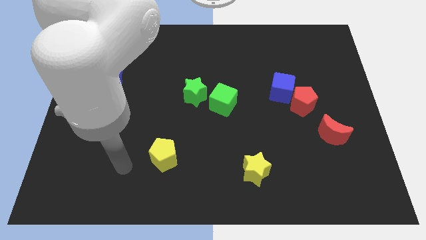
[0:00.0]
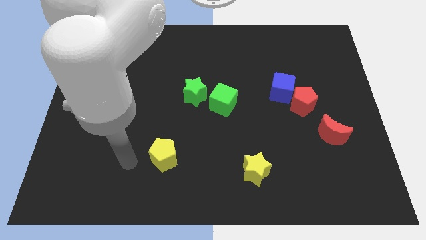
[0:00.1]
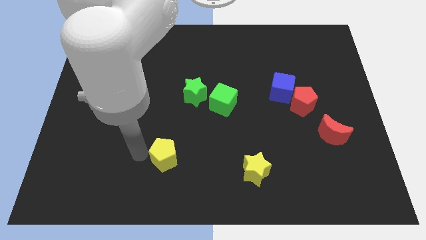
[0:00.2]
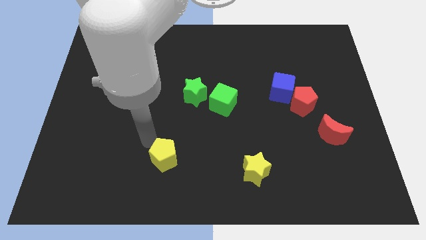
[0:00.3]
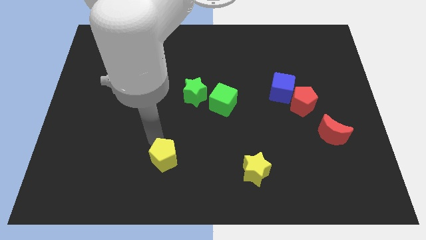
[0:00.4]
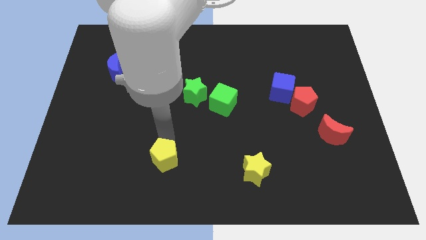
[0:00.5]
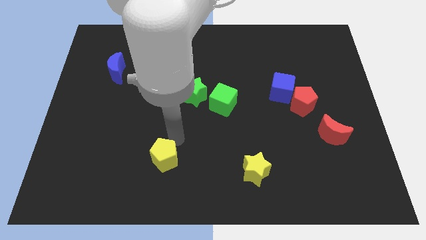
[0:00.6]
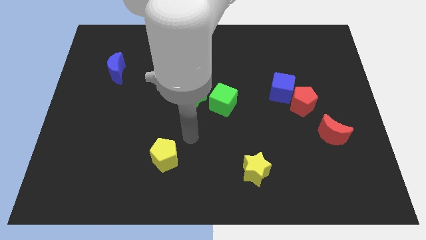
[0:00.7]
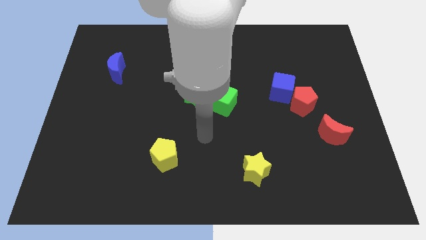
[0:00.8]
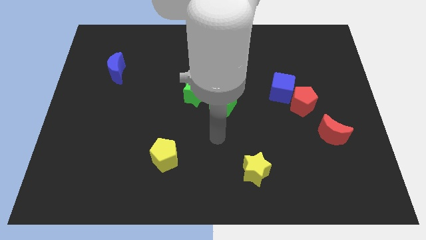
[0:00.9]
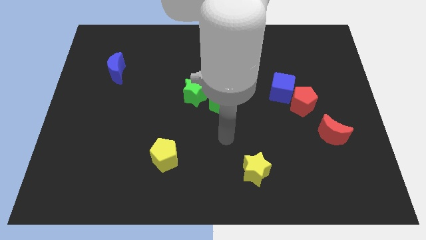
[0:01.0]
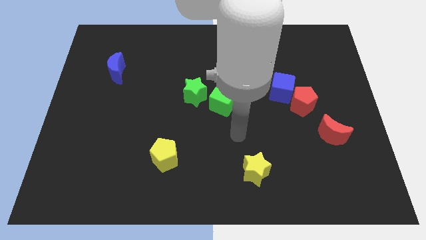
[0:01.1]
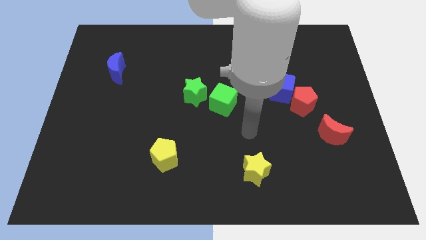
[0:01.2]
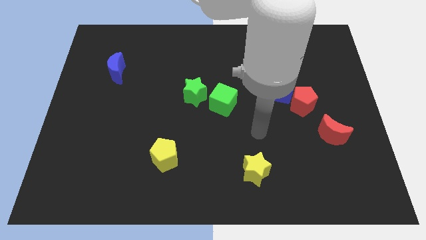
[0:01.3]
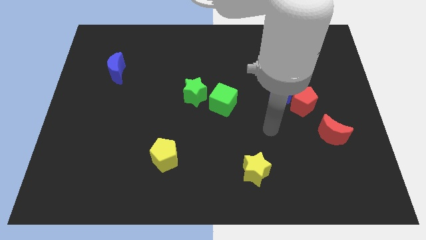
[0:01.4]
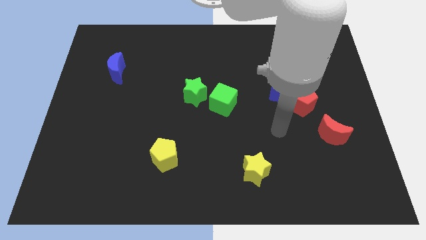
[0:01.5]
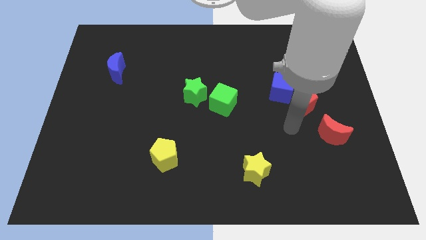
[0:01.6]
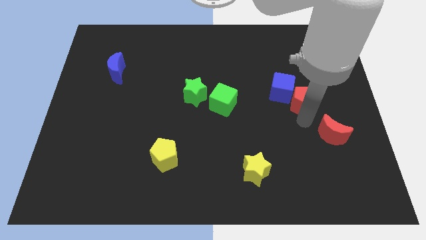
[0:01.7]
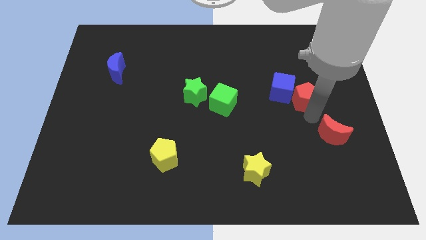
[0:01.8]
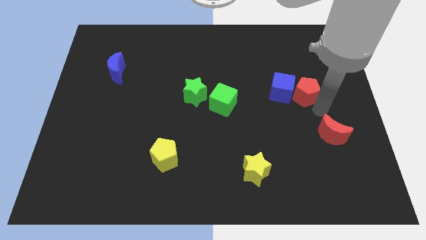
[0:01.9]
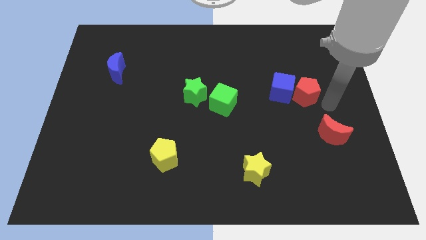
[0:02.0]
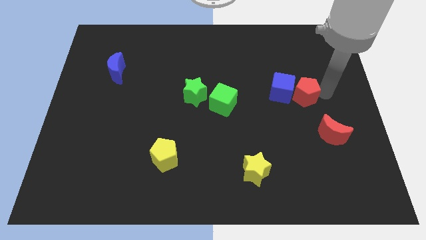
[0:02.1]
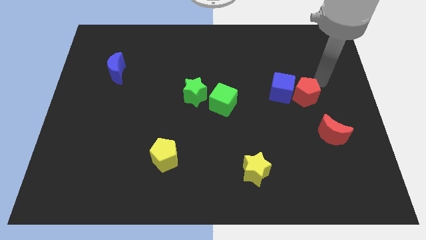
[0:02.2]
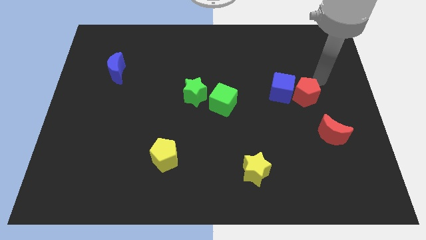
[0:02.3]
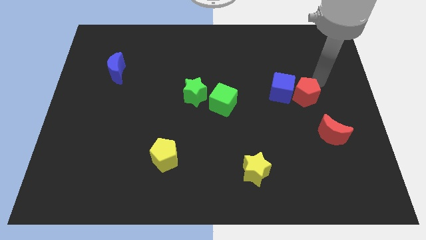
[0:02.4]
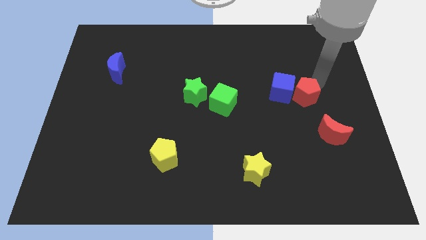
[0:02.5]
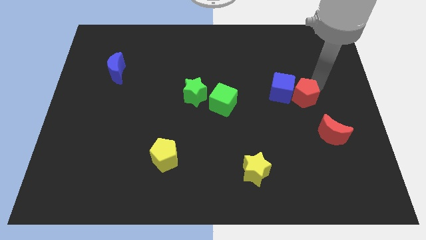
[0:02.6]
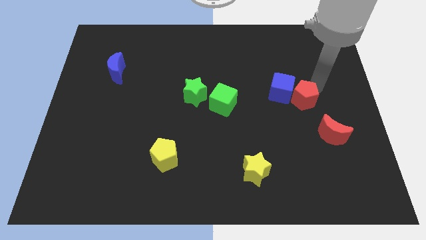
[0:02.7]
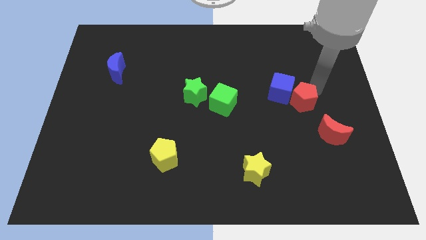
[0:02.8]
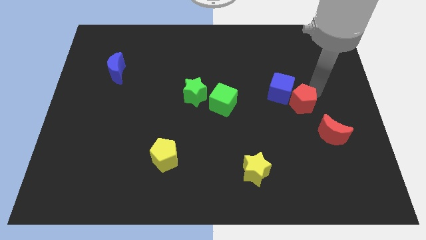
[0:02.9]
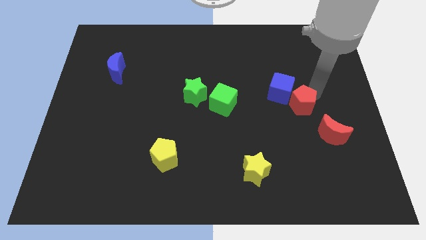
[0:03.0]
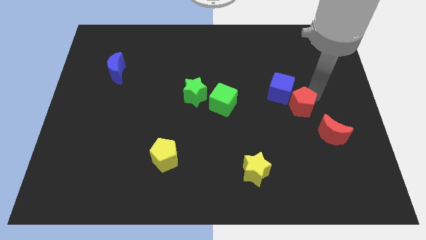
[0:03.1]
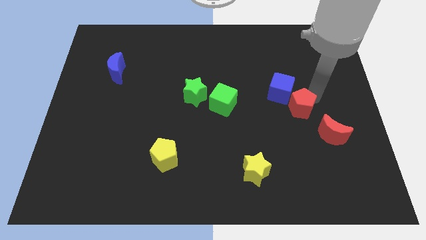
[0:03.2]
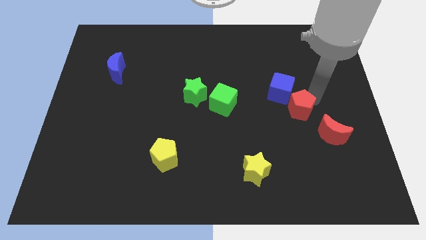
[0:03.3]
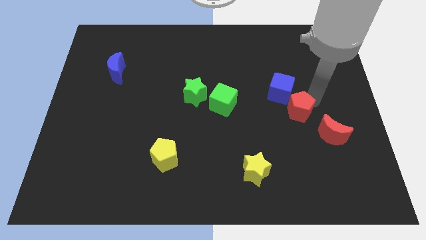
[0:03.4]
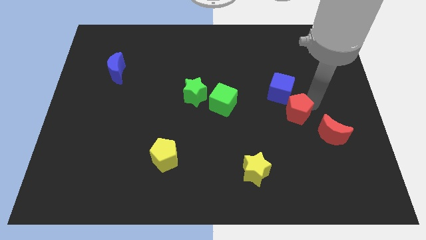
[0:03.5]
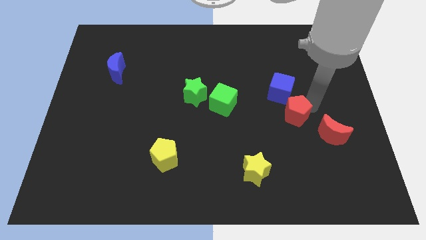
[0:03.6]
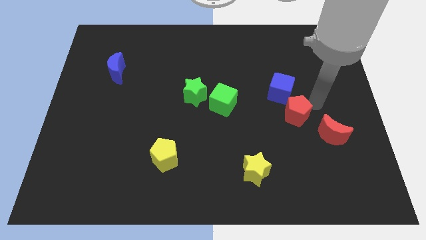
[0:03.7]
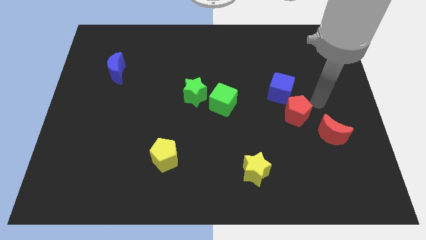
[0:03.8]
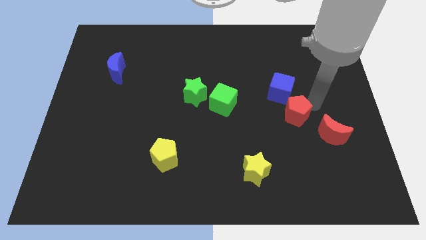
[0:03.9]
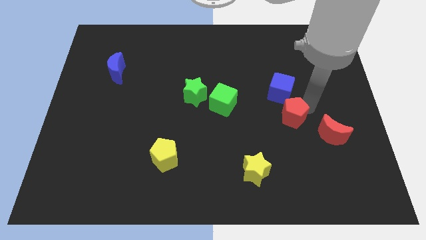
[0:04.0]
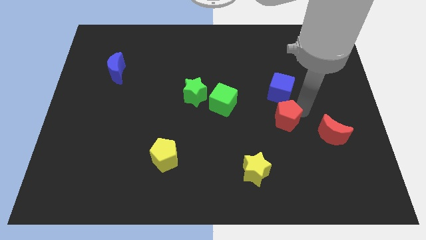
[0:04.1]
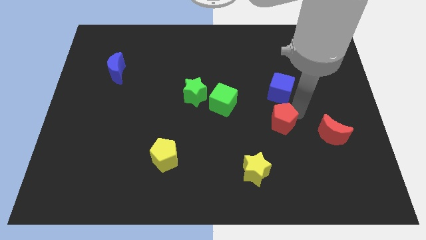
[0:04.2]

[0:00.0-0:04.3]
move the red pentagon diagonally downwards and to the left a bit

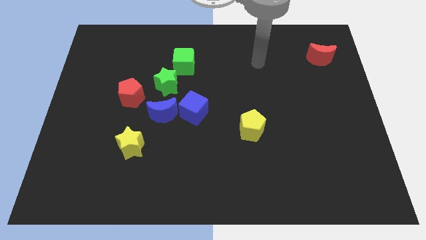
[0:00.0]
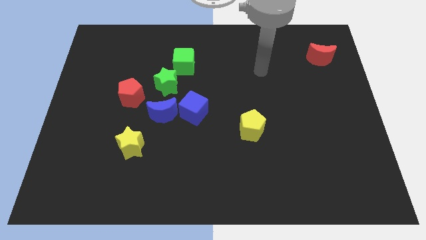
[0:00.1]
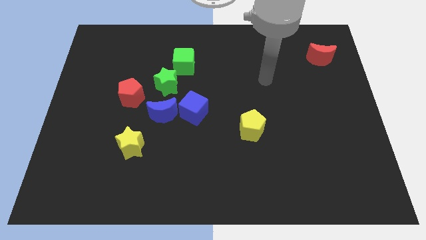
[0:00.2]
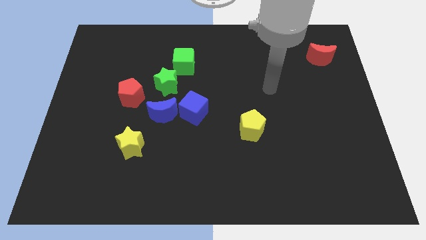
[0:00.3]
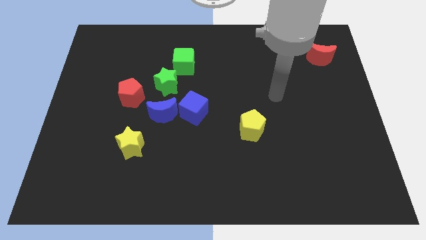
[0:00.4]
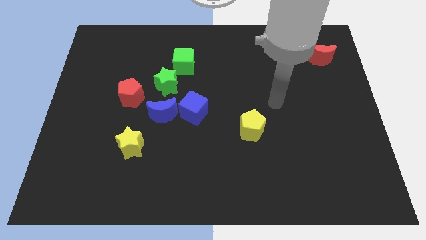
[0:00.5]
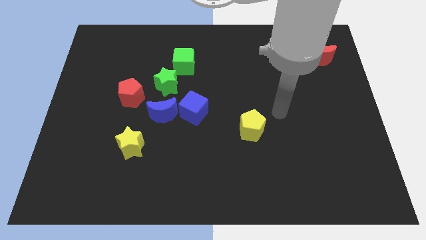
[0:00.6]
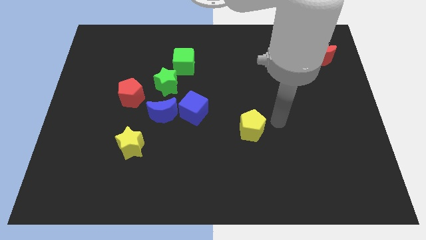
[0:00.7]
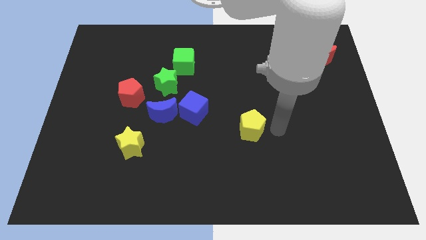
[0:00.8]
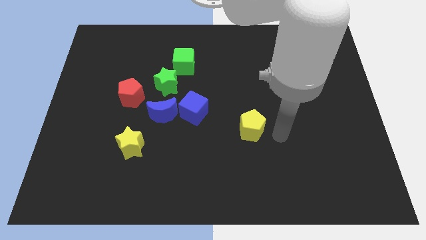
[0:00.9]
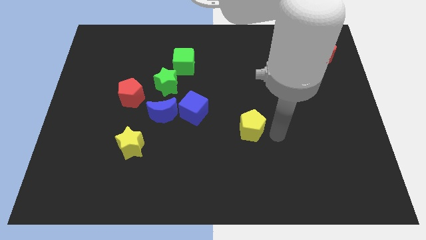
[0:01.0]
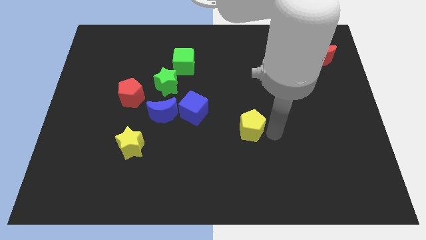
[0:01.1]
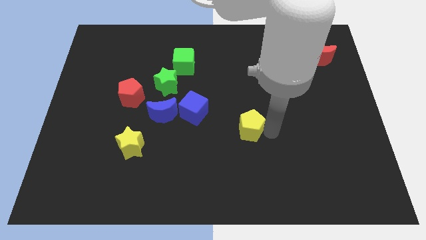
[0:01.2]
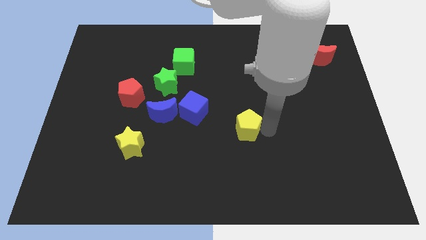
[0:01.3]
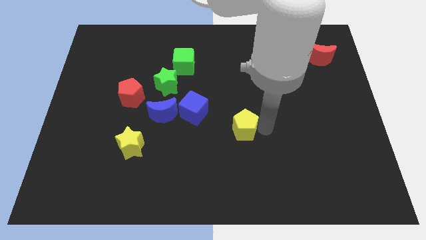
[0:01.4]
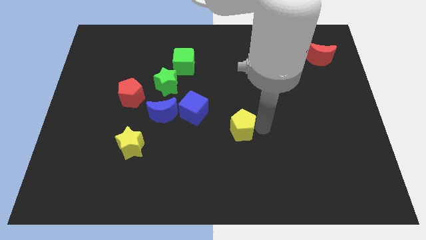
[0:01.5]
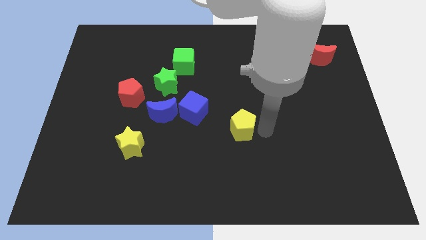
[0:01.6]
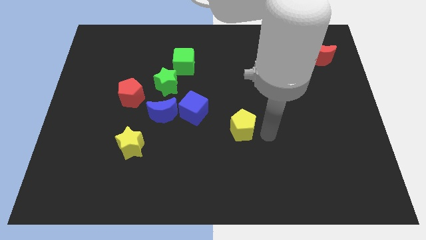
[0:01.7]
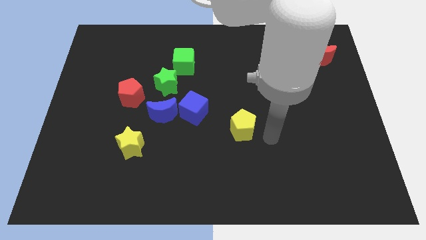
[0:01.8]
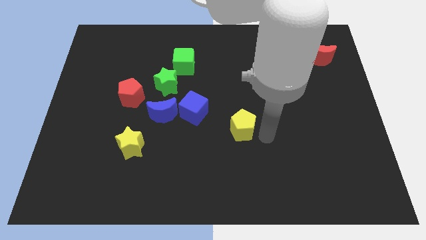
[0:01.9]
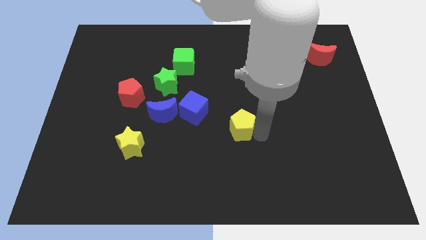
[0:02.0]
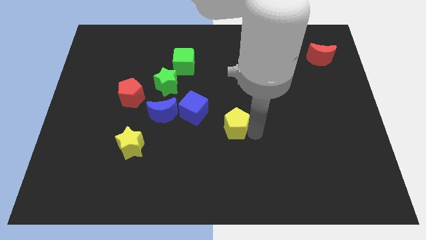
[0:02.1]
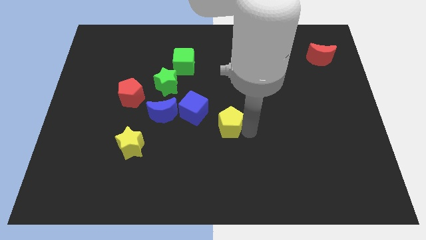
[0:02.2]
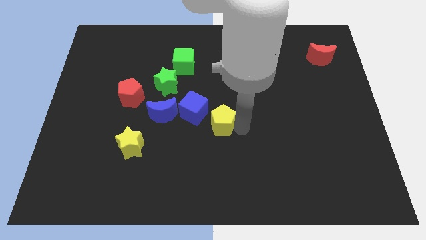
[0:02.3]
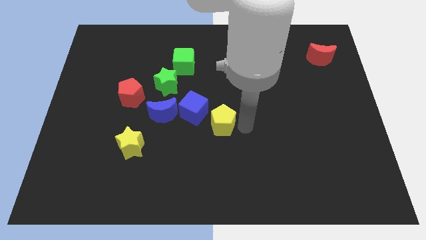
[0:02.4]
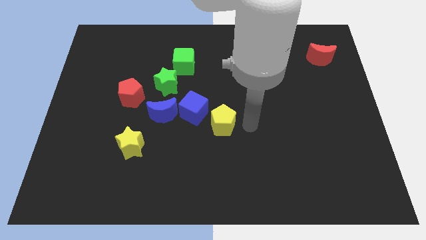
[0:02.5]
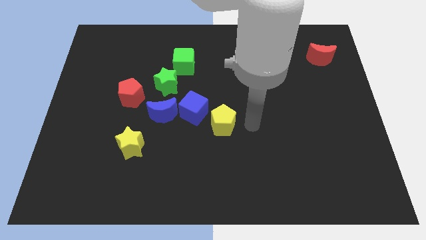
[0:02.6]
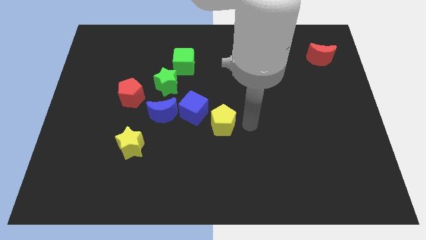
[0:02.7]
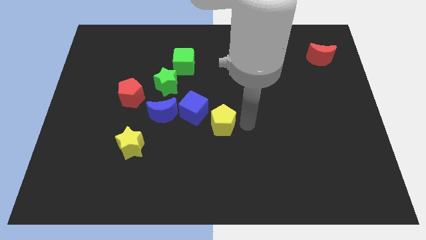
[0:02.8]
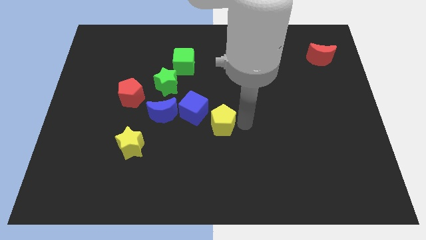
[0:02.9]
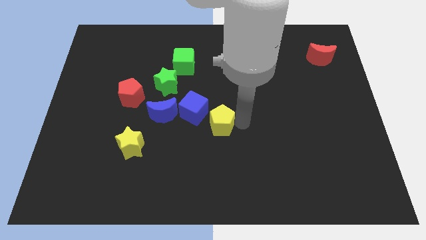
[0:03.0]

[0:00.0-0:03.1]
slightly move the yellow pentagon to the left

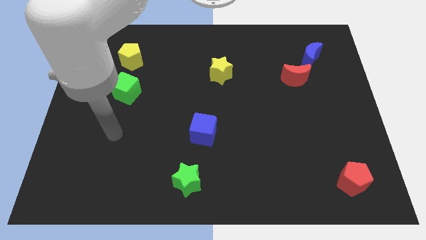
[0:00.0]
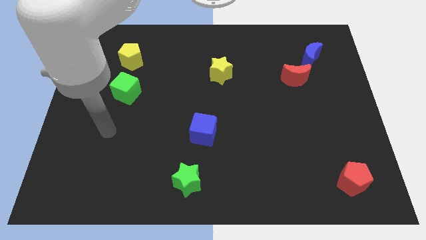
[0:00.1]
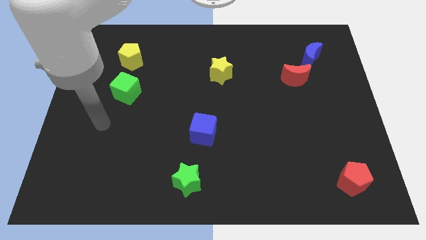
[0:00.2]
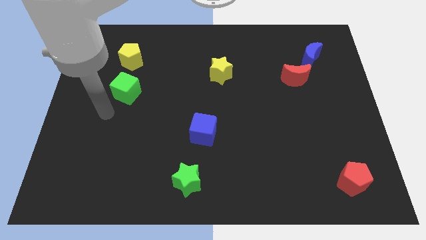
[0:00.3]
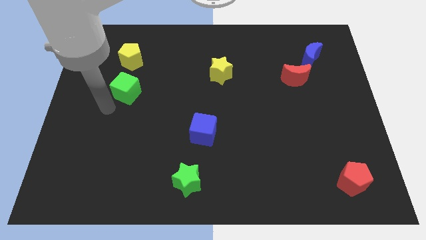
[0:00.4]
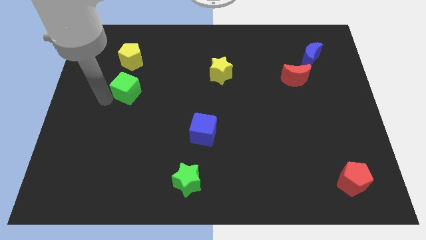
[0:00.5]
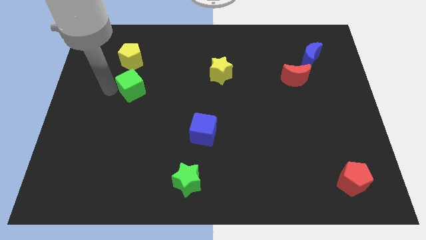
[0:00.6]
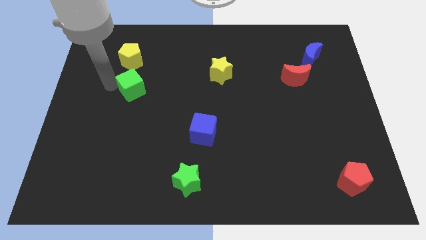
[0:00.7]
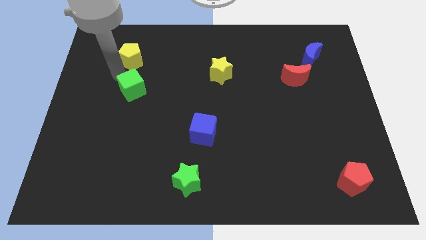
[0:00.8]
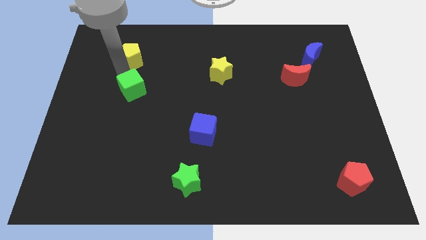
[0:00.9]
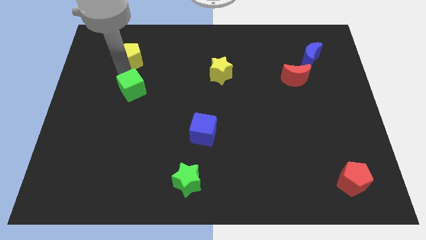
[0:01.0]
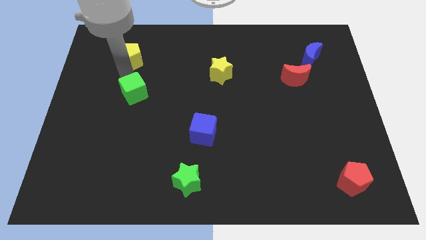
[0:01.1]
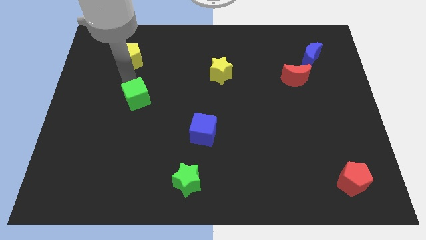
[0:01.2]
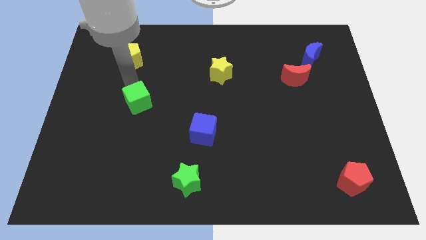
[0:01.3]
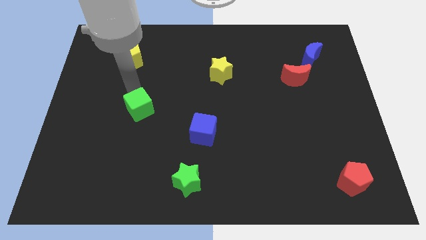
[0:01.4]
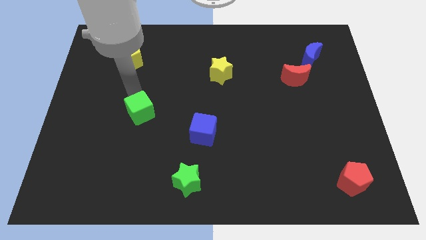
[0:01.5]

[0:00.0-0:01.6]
slide the green cube down and right diagonally somewhat
